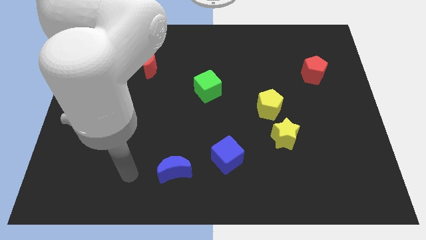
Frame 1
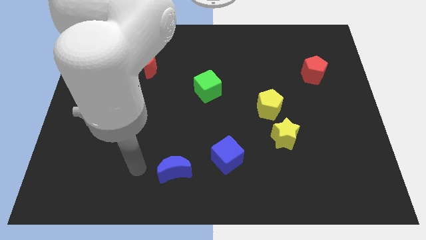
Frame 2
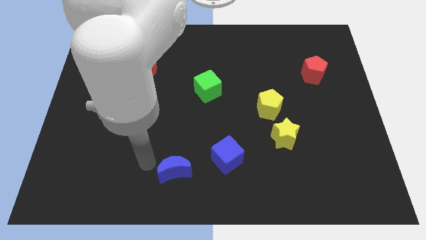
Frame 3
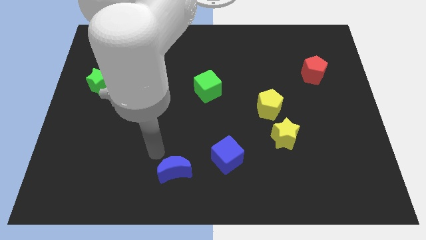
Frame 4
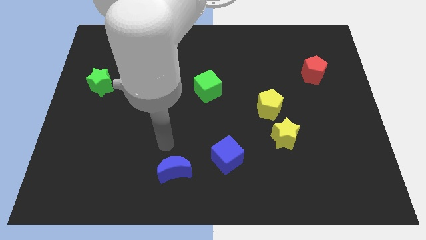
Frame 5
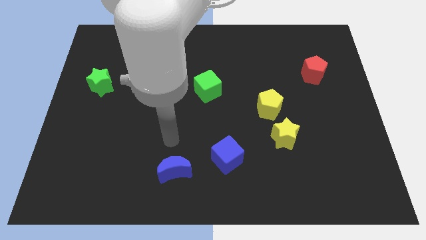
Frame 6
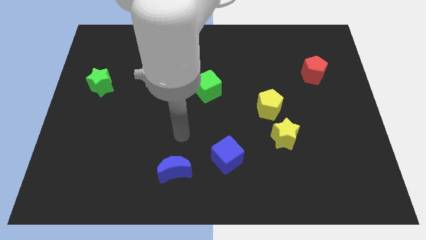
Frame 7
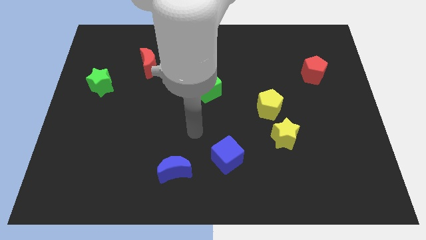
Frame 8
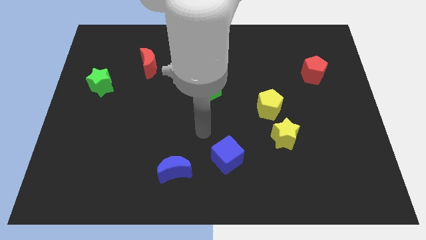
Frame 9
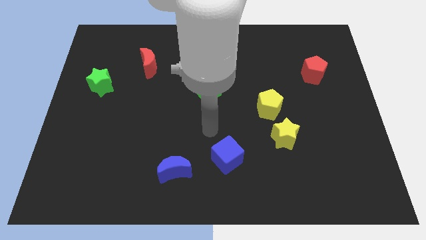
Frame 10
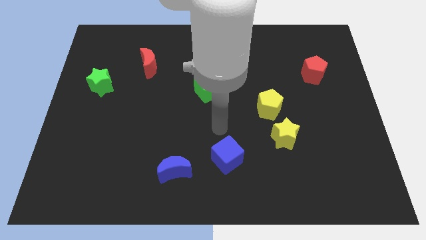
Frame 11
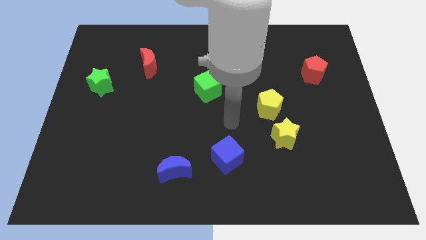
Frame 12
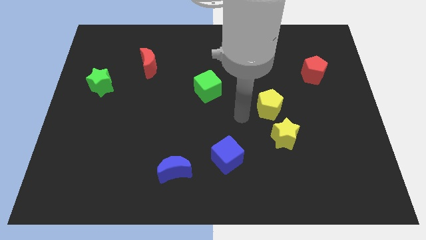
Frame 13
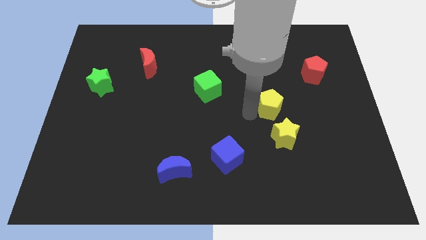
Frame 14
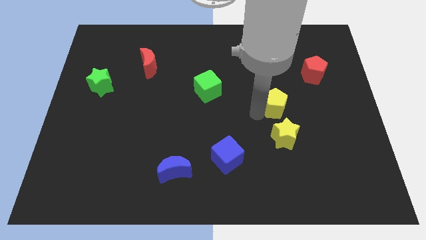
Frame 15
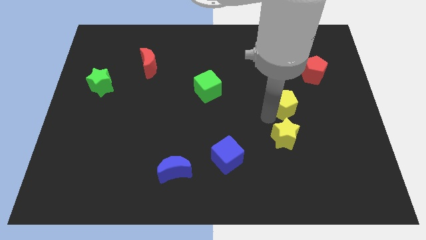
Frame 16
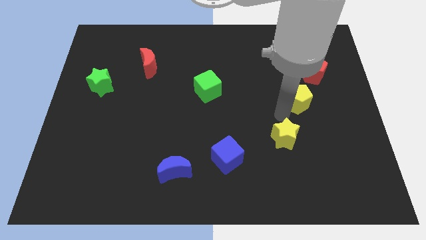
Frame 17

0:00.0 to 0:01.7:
move the yellow star away from the yellow pentagon

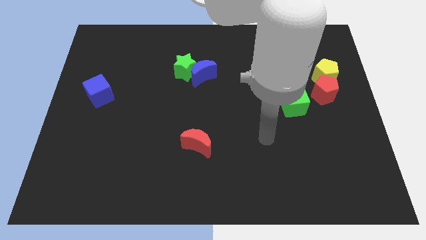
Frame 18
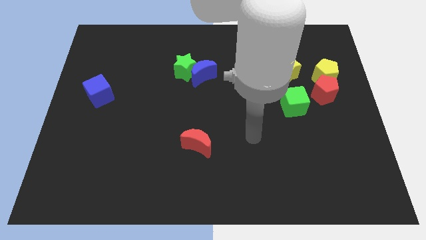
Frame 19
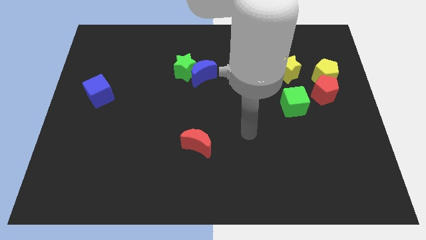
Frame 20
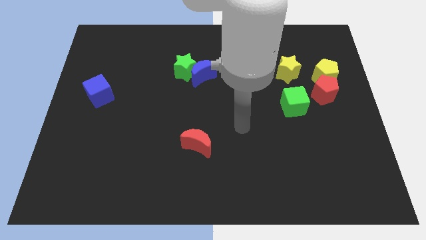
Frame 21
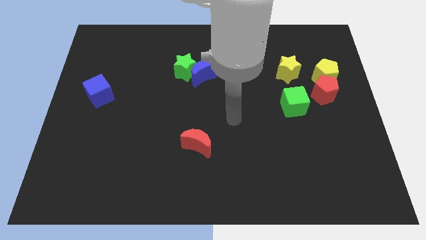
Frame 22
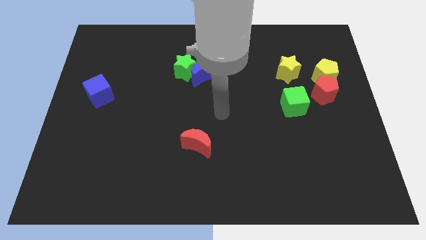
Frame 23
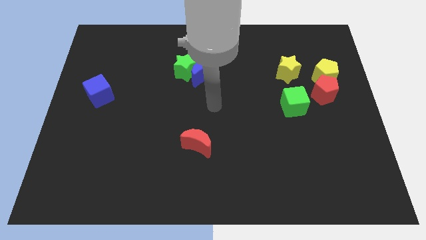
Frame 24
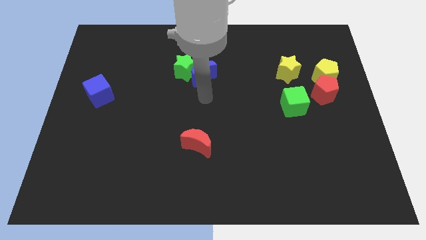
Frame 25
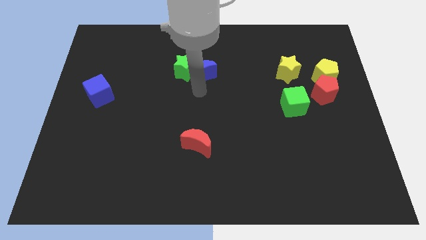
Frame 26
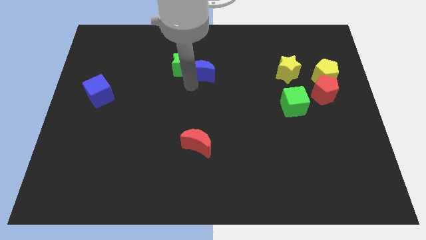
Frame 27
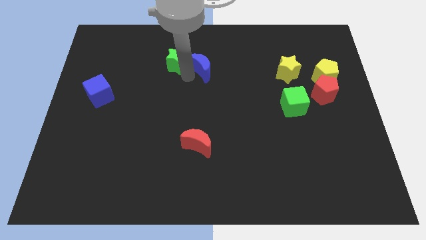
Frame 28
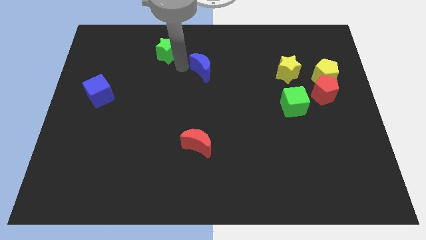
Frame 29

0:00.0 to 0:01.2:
move the blue moon away from the green star

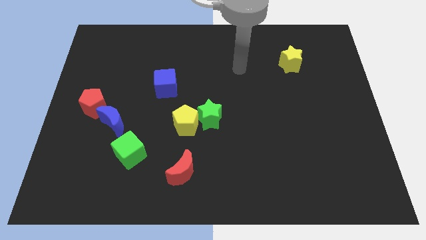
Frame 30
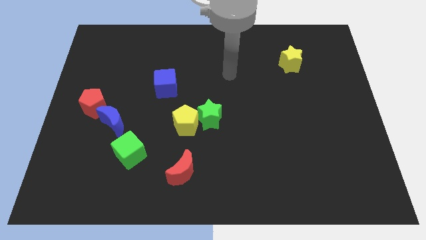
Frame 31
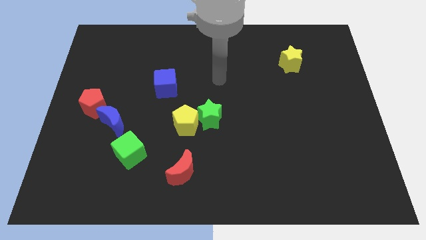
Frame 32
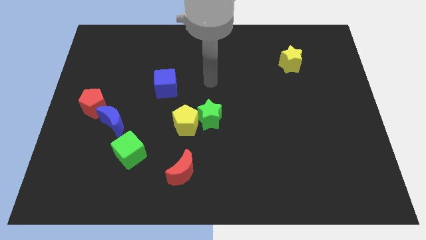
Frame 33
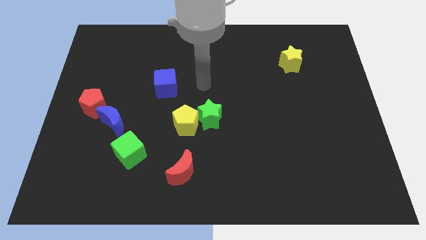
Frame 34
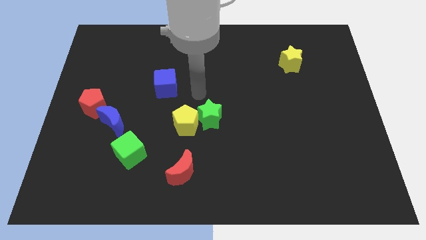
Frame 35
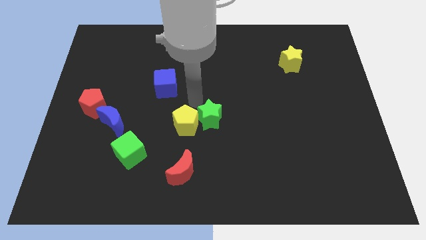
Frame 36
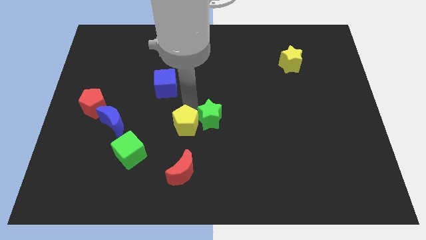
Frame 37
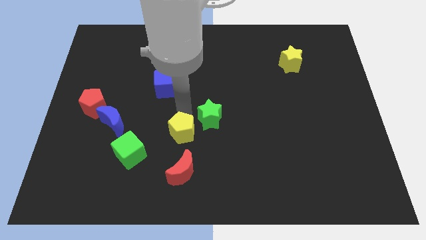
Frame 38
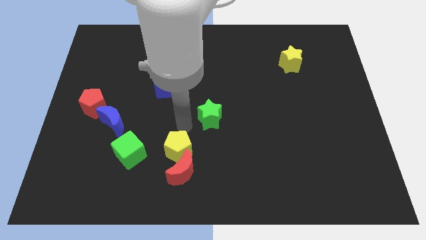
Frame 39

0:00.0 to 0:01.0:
separate the green star from the yellow pentagon

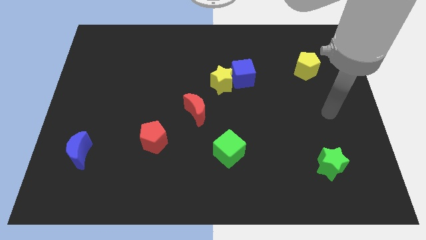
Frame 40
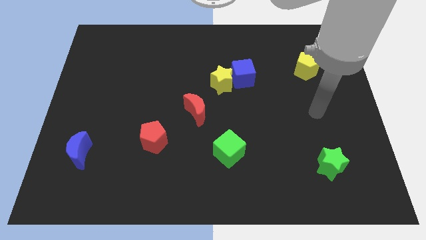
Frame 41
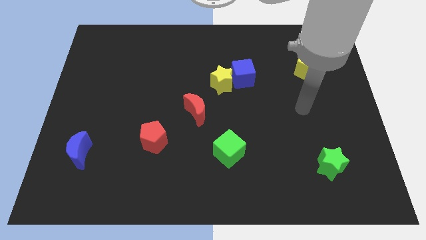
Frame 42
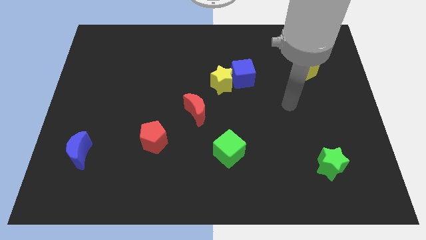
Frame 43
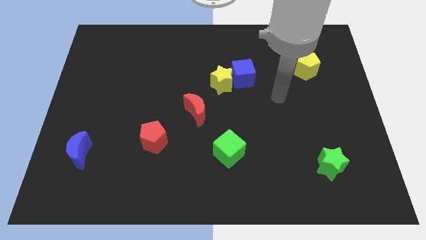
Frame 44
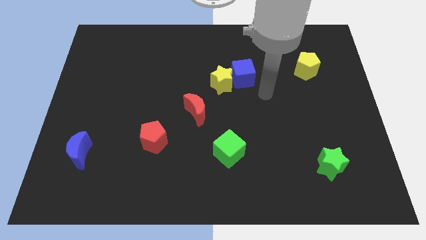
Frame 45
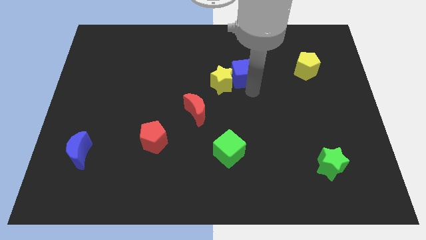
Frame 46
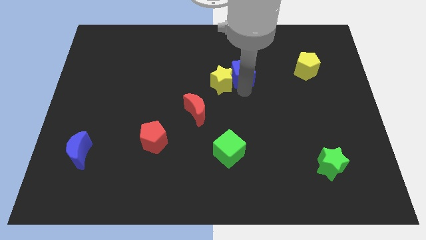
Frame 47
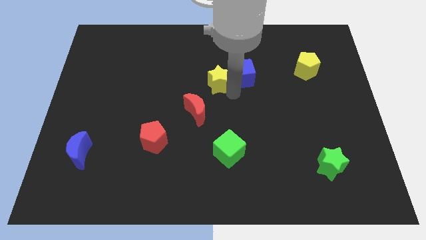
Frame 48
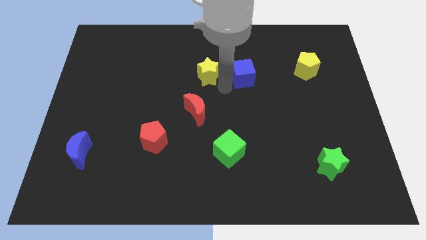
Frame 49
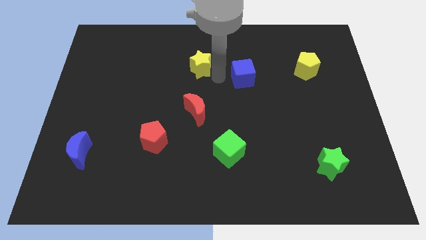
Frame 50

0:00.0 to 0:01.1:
pull the blue cube apart from the yellow star

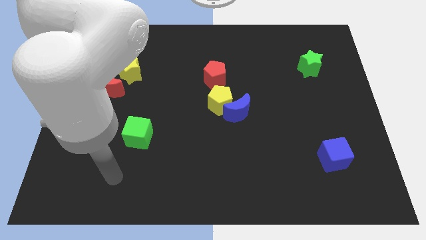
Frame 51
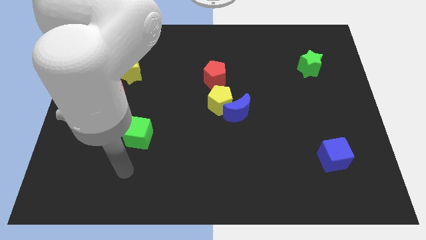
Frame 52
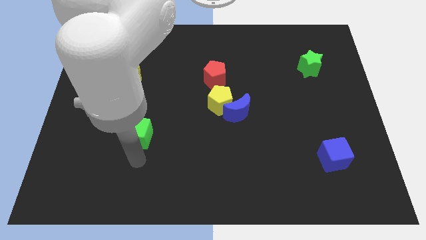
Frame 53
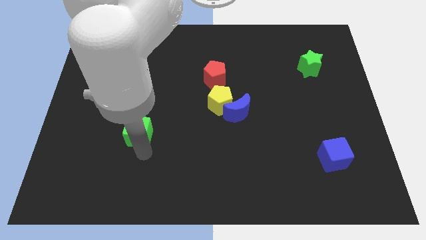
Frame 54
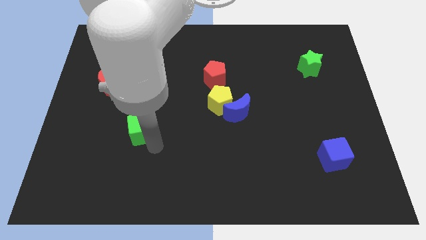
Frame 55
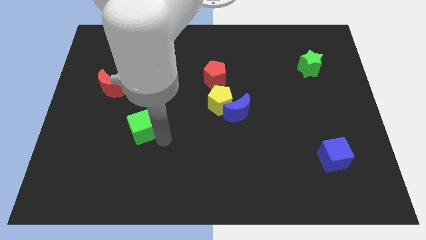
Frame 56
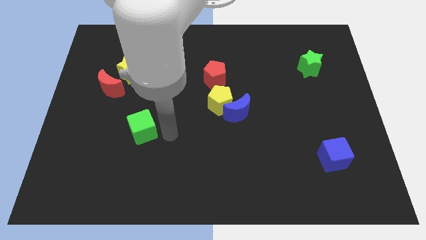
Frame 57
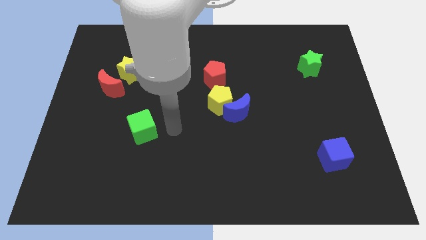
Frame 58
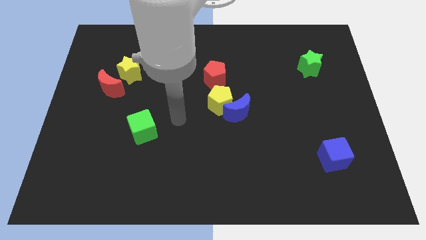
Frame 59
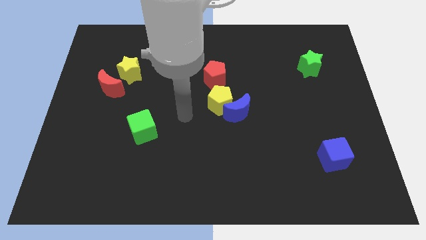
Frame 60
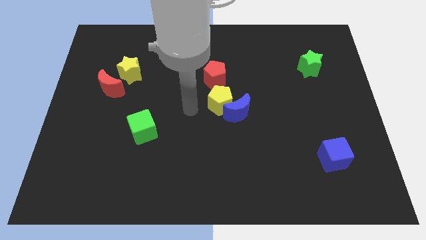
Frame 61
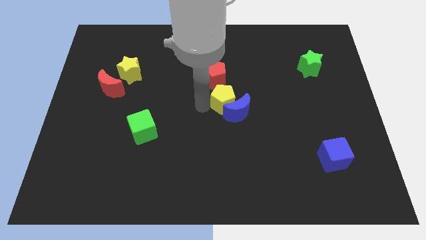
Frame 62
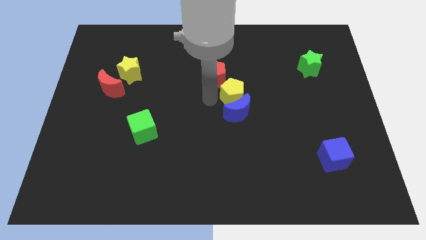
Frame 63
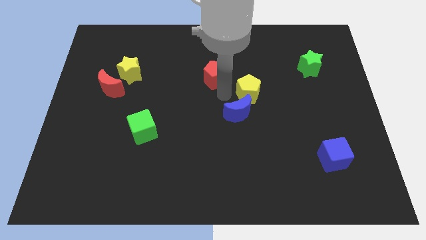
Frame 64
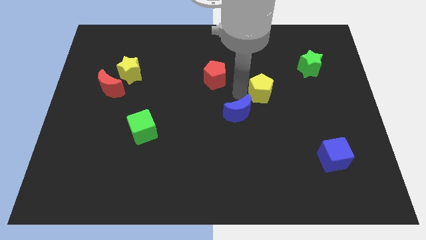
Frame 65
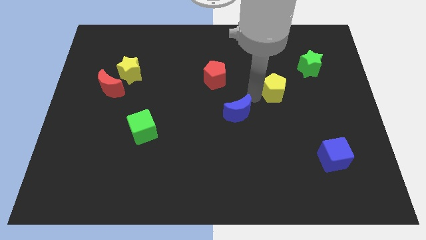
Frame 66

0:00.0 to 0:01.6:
move the blue moon away from the yellow pentagon

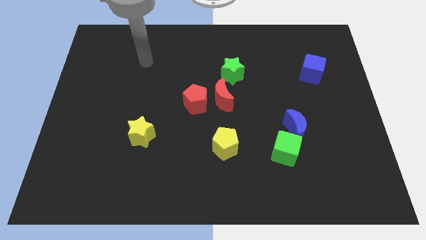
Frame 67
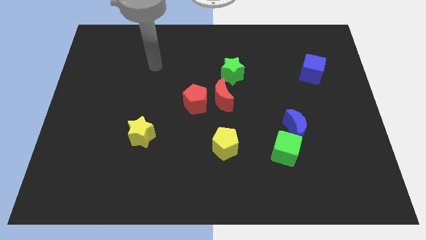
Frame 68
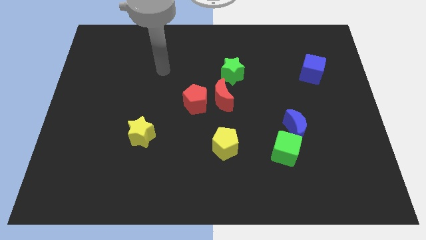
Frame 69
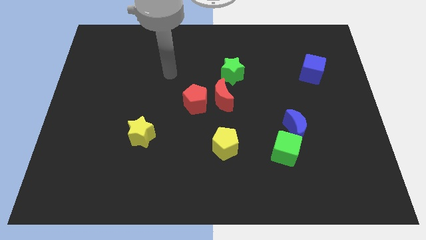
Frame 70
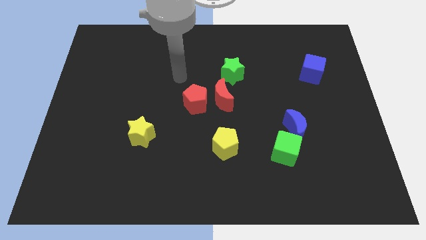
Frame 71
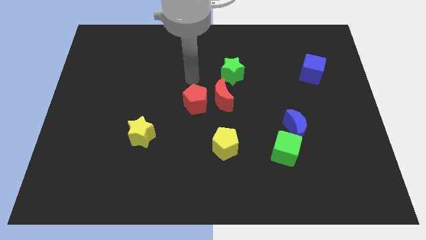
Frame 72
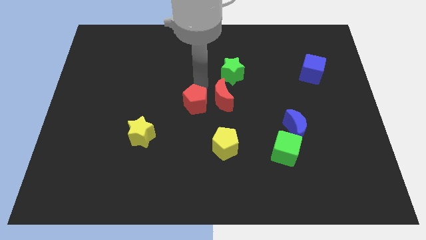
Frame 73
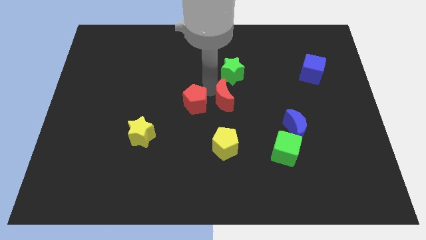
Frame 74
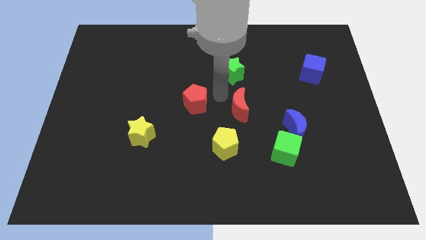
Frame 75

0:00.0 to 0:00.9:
pull the red pentagon apart from the red moon

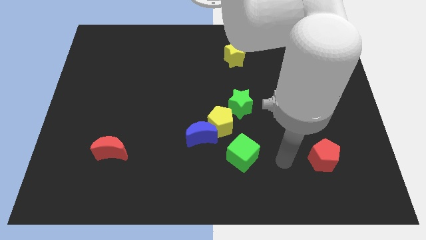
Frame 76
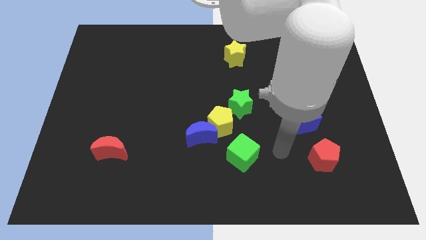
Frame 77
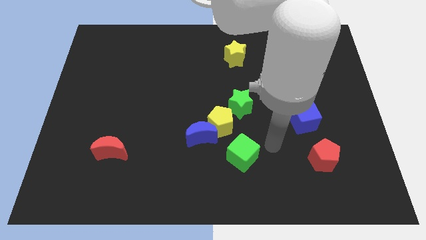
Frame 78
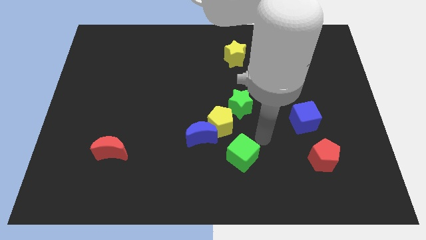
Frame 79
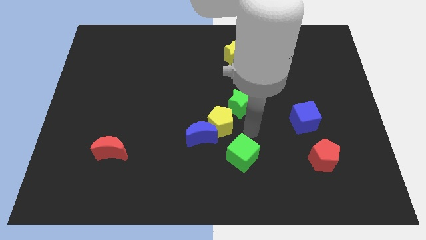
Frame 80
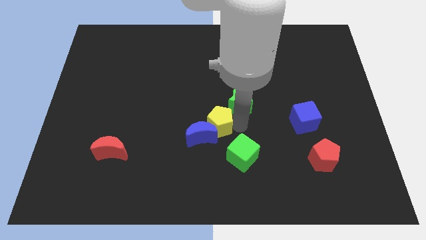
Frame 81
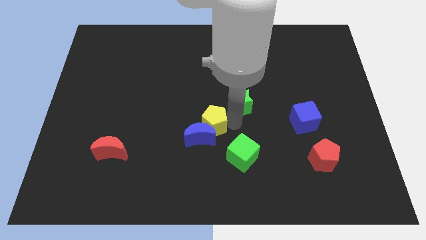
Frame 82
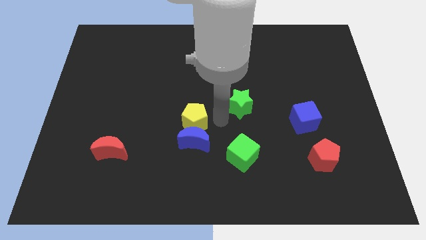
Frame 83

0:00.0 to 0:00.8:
move the green star away from the yellow pentagon

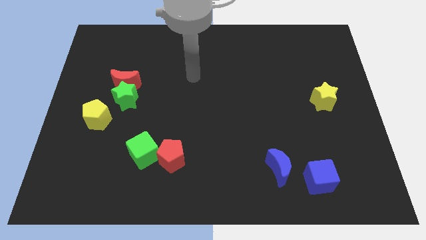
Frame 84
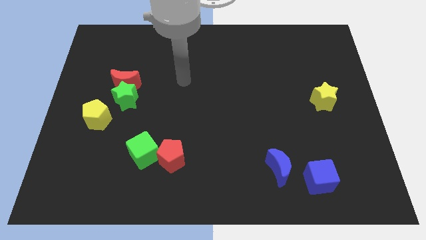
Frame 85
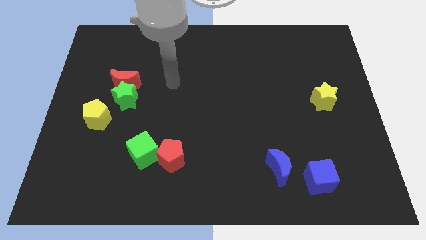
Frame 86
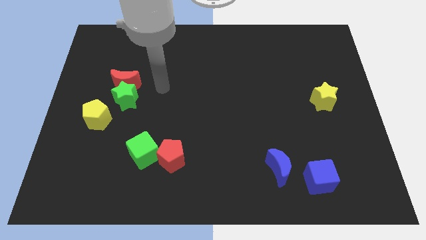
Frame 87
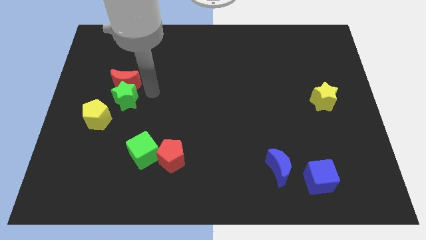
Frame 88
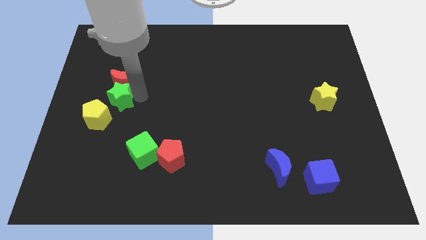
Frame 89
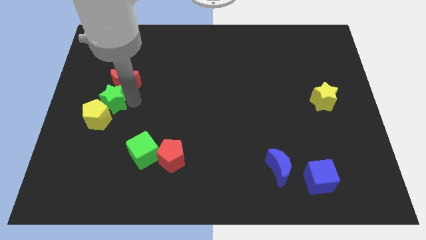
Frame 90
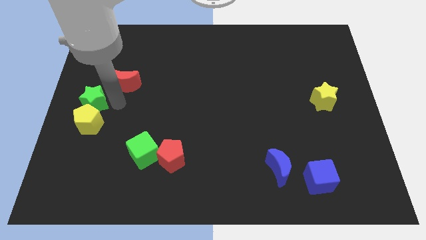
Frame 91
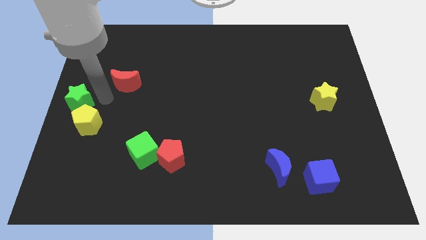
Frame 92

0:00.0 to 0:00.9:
pull the red moon apart from the green star
